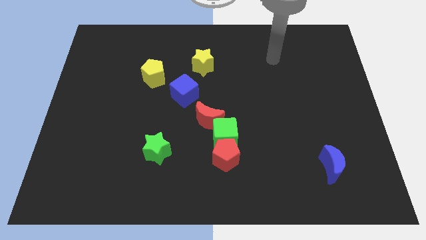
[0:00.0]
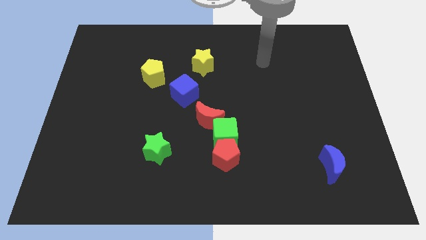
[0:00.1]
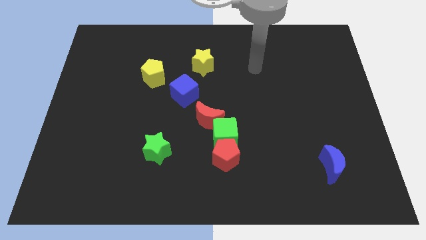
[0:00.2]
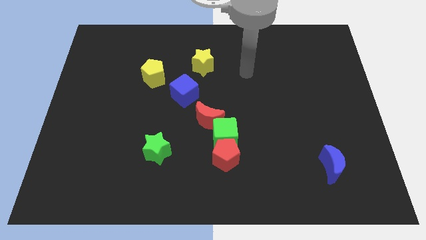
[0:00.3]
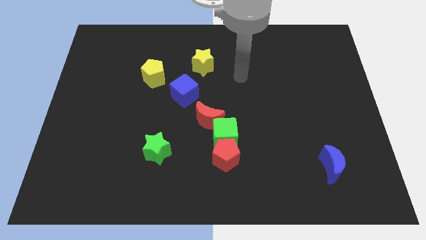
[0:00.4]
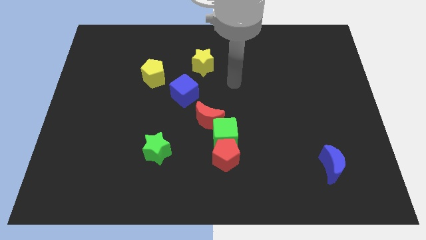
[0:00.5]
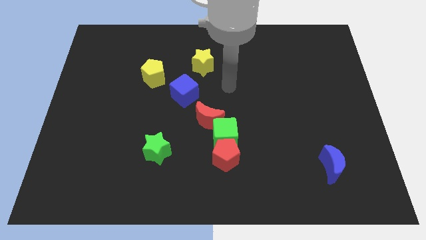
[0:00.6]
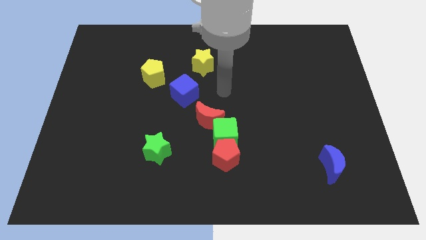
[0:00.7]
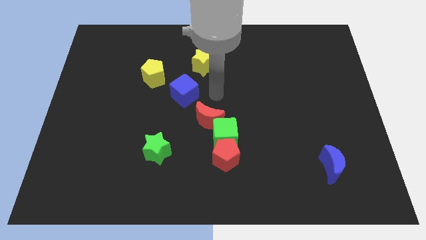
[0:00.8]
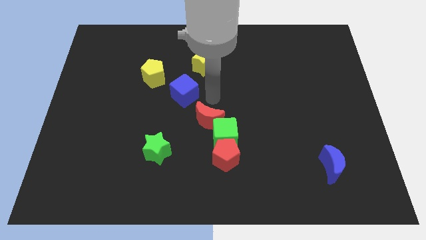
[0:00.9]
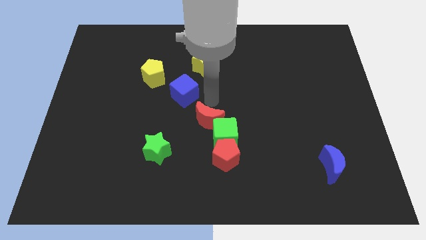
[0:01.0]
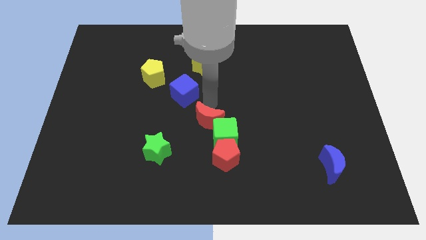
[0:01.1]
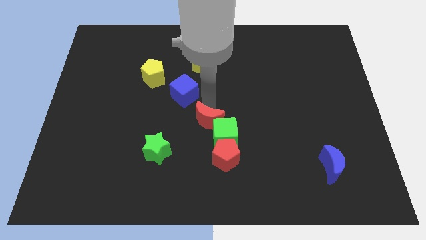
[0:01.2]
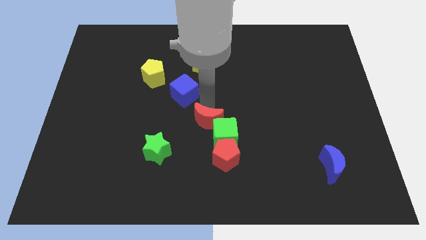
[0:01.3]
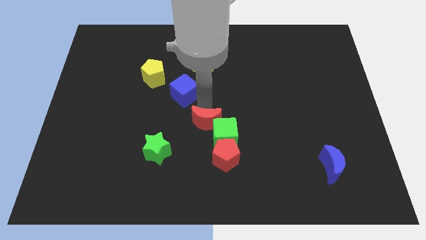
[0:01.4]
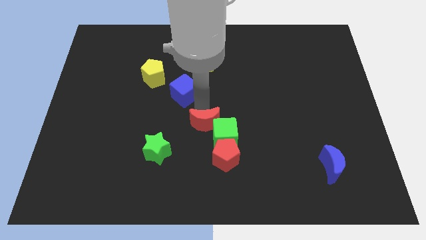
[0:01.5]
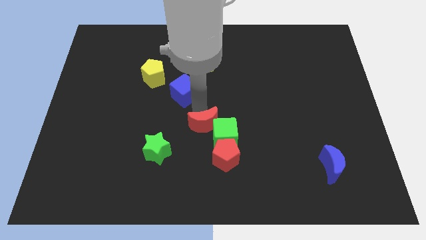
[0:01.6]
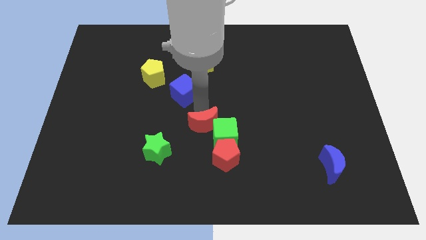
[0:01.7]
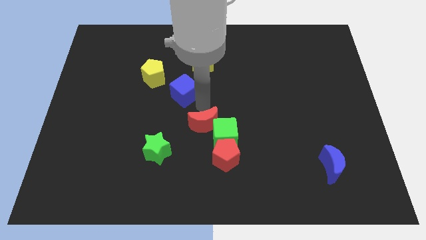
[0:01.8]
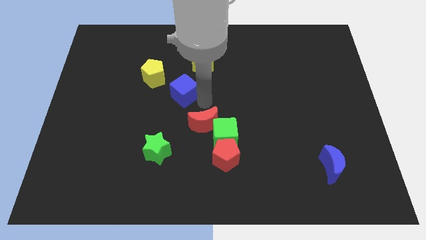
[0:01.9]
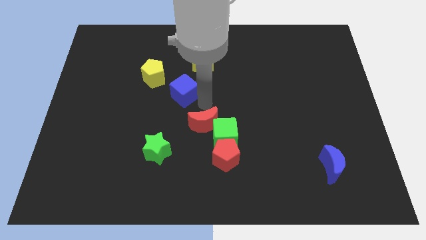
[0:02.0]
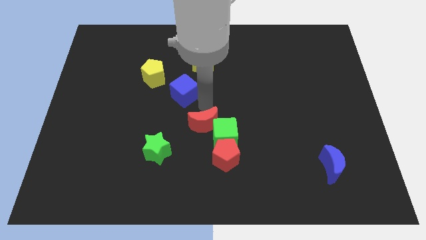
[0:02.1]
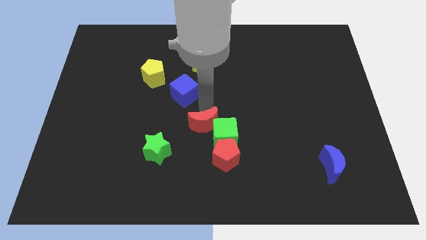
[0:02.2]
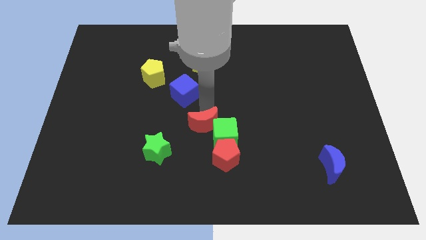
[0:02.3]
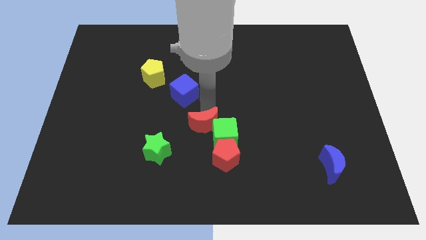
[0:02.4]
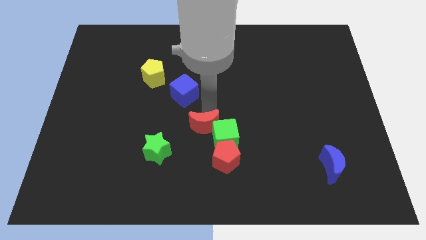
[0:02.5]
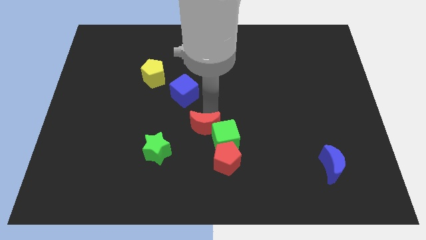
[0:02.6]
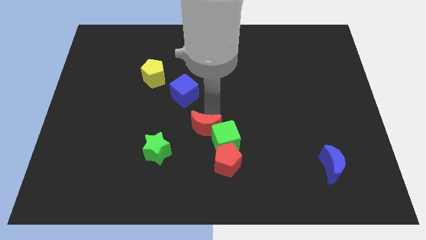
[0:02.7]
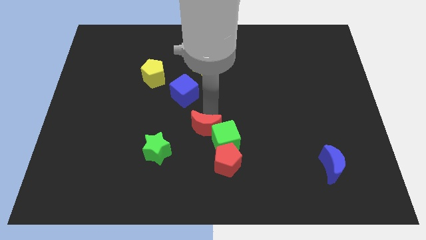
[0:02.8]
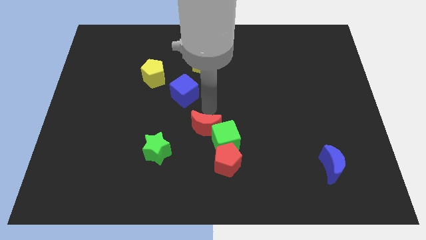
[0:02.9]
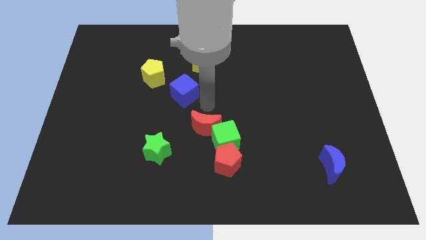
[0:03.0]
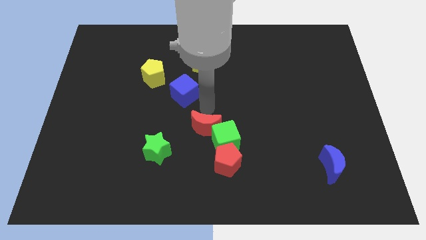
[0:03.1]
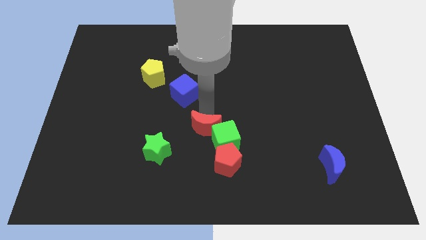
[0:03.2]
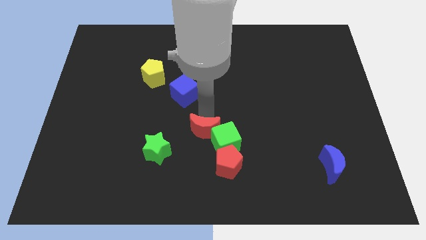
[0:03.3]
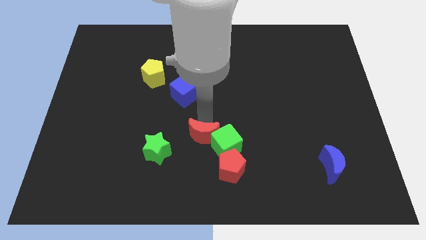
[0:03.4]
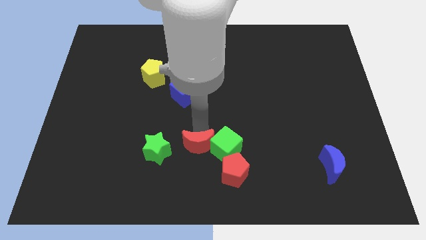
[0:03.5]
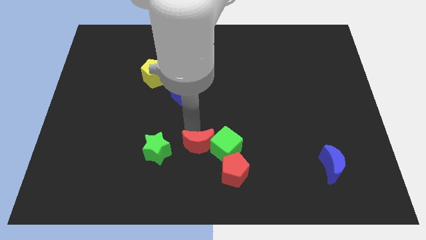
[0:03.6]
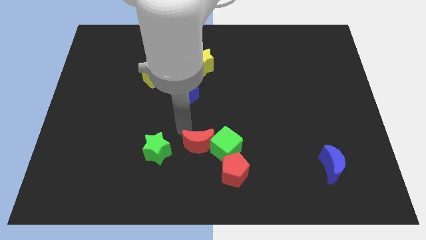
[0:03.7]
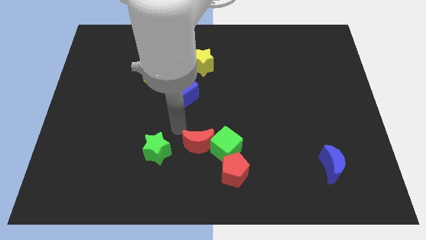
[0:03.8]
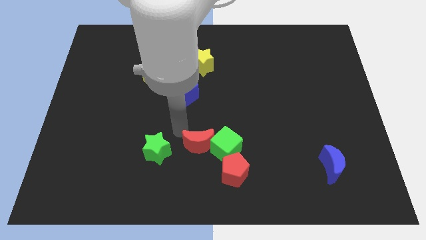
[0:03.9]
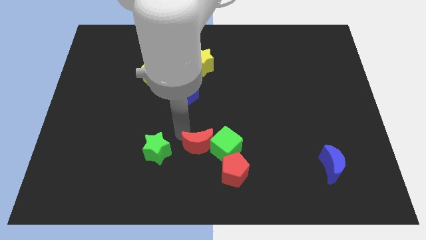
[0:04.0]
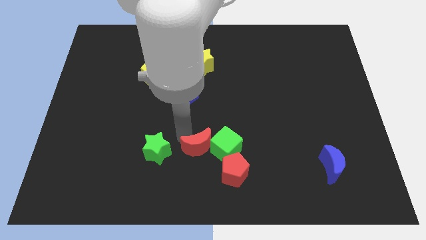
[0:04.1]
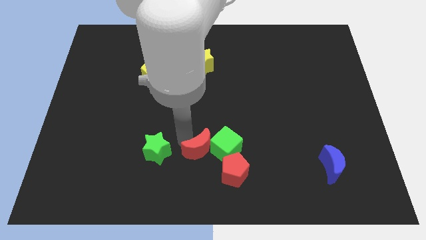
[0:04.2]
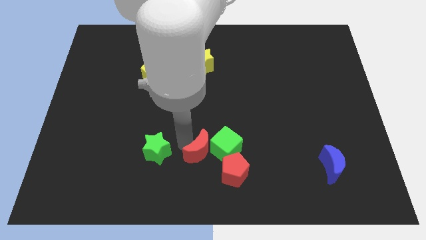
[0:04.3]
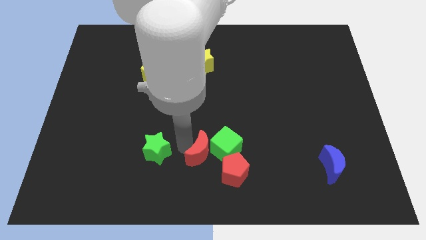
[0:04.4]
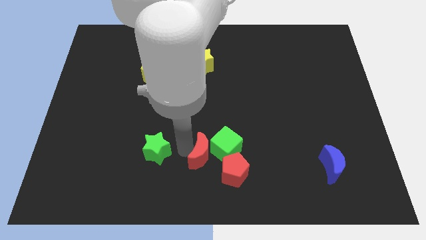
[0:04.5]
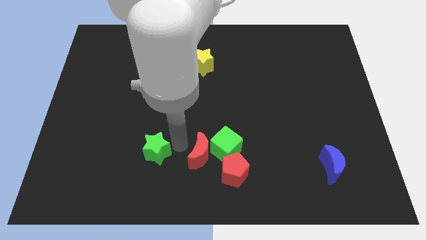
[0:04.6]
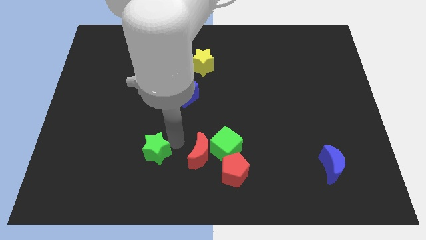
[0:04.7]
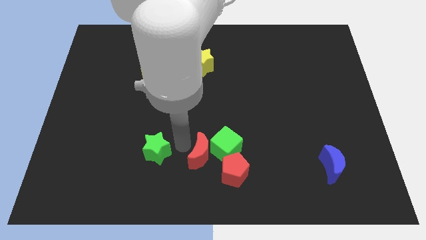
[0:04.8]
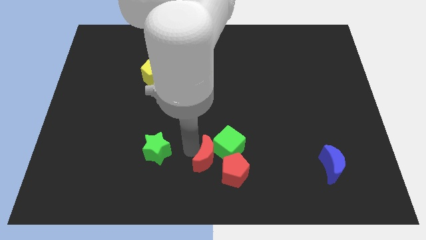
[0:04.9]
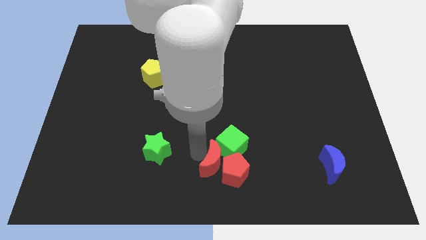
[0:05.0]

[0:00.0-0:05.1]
slide the red moon to the red pentagon

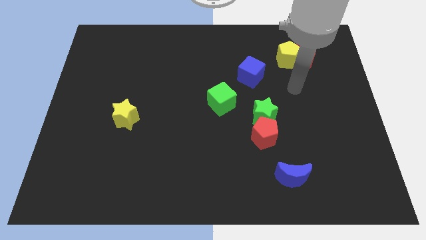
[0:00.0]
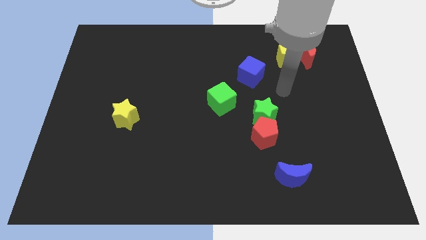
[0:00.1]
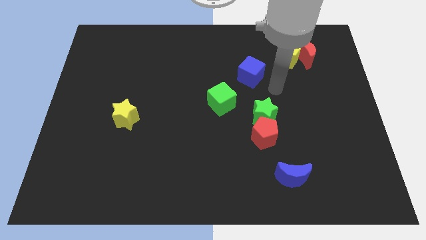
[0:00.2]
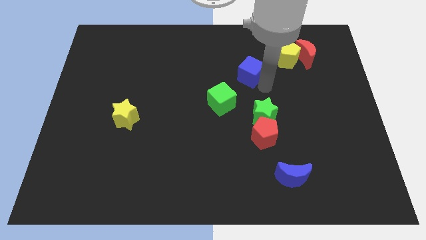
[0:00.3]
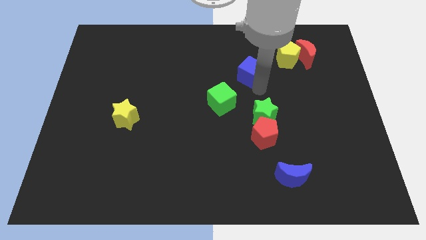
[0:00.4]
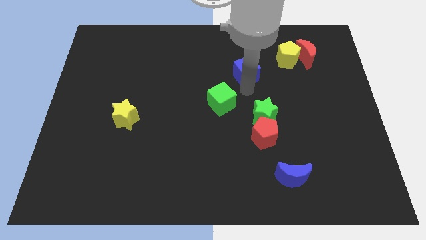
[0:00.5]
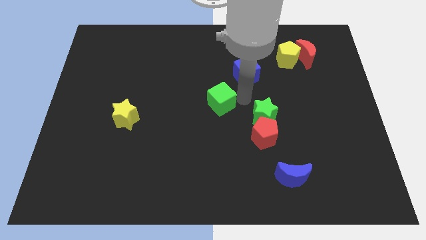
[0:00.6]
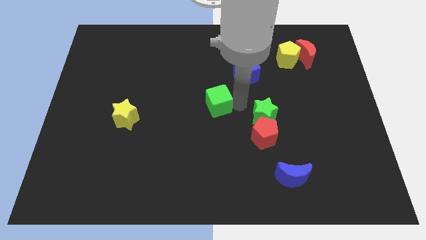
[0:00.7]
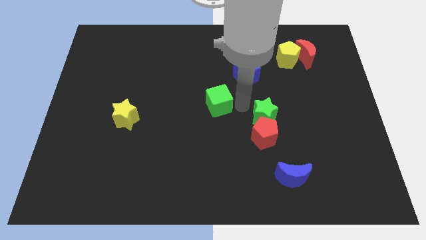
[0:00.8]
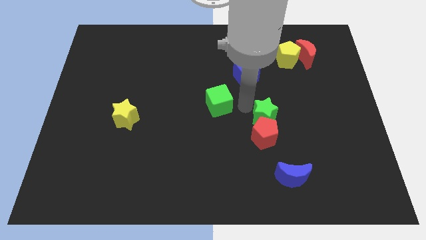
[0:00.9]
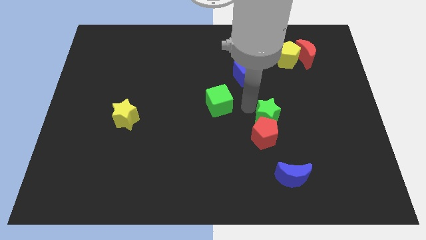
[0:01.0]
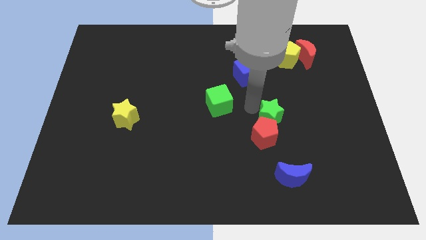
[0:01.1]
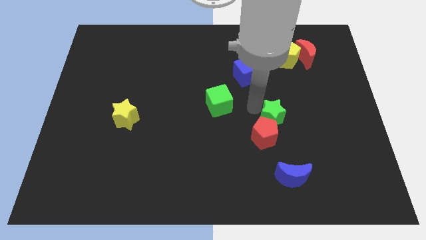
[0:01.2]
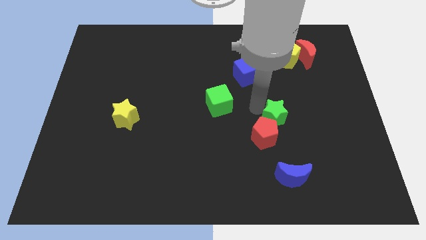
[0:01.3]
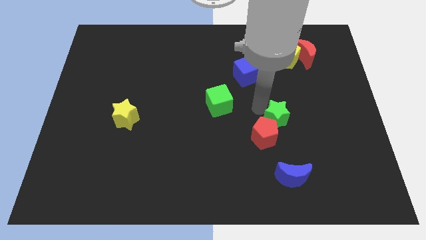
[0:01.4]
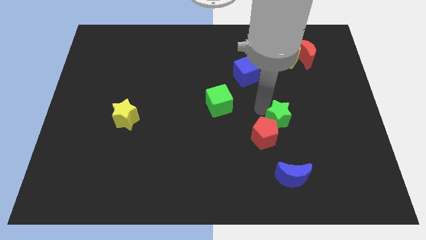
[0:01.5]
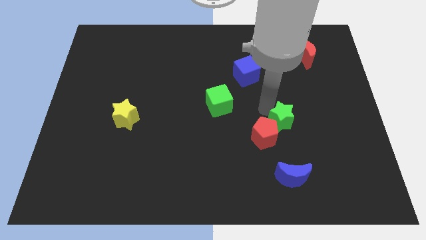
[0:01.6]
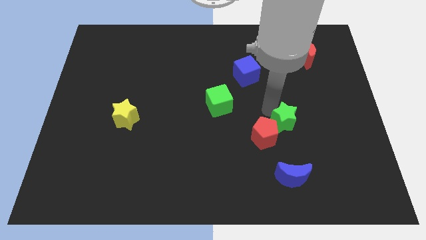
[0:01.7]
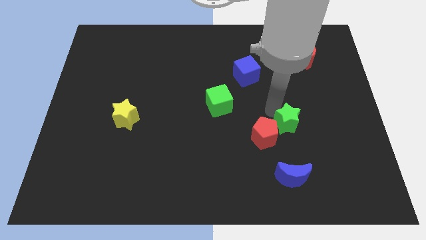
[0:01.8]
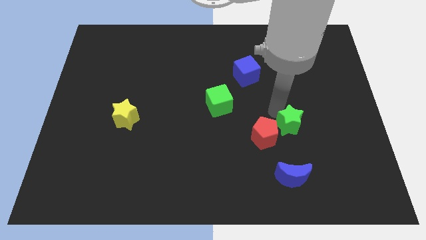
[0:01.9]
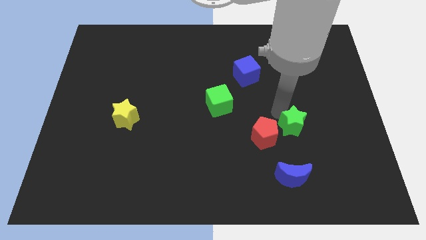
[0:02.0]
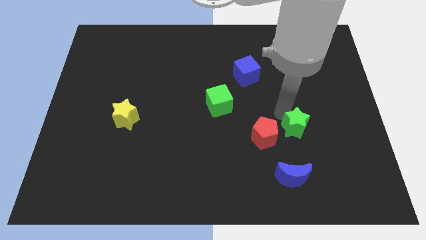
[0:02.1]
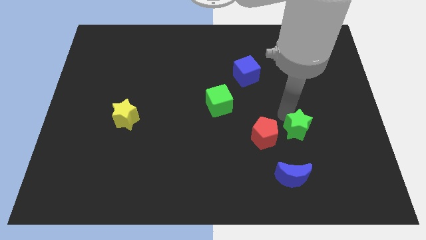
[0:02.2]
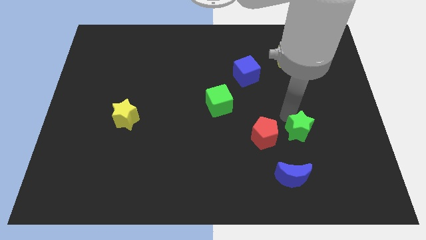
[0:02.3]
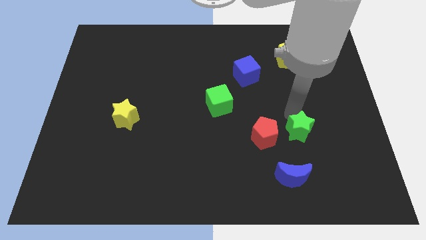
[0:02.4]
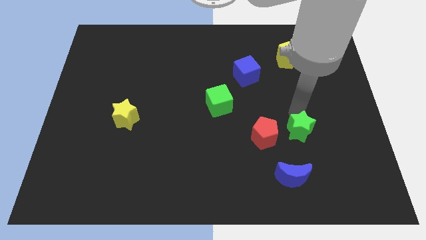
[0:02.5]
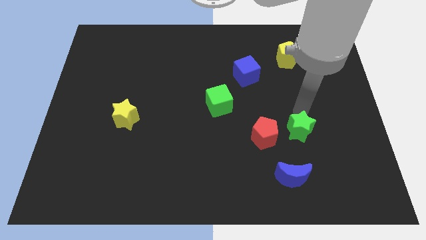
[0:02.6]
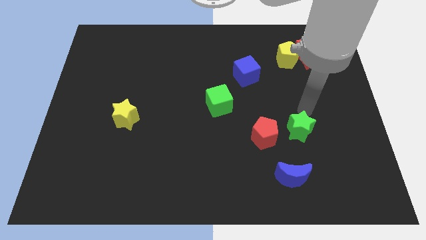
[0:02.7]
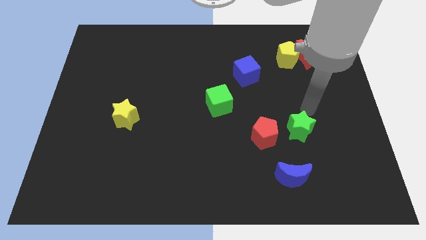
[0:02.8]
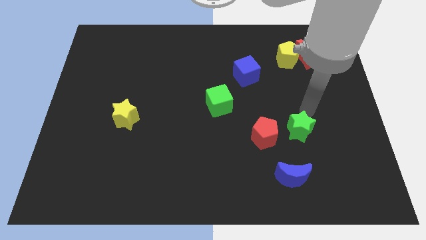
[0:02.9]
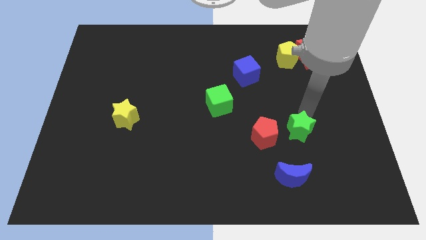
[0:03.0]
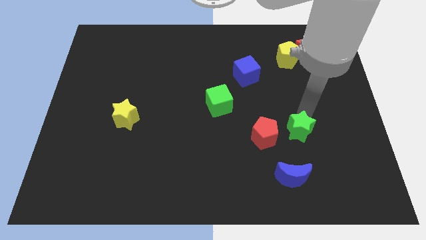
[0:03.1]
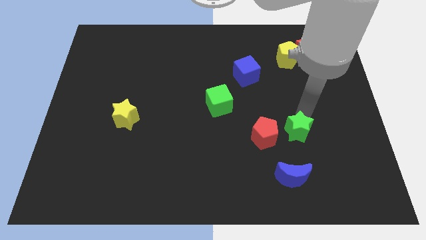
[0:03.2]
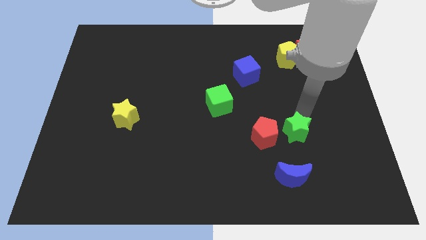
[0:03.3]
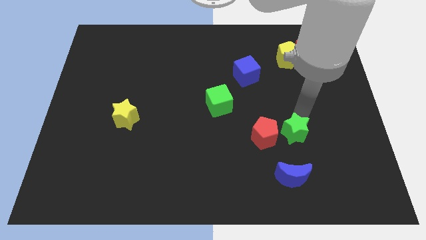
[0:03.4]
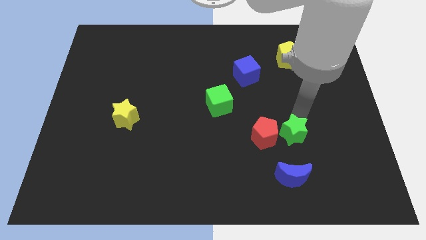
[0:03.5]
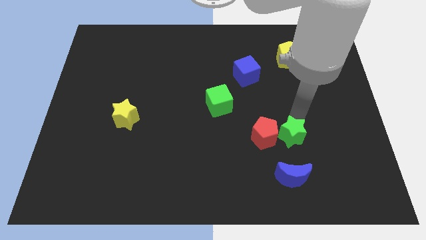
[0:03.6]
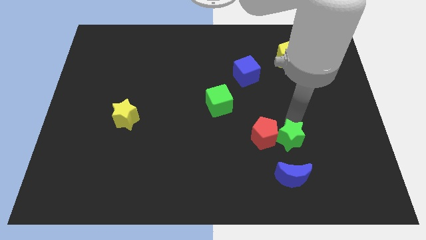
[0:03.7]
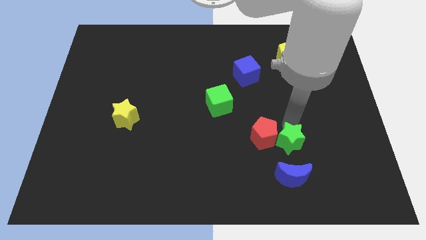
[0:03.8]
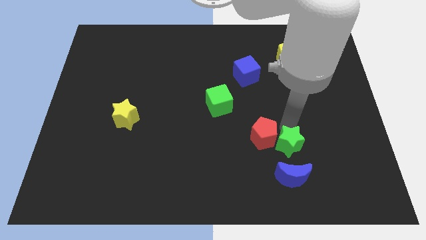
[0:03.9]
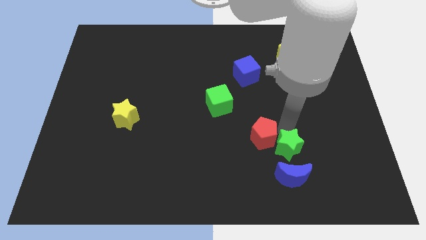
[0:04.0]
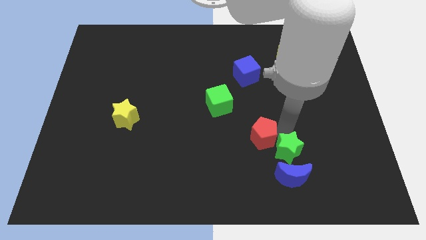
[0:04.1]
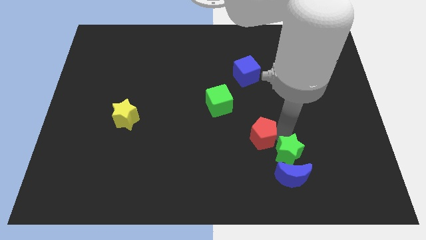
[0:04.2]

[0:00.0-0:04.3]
put the green star to the blue moon
